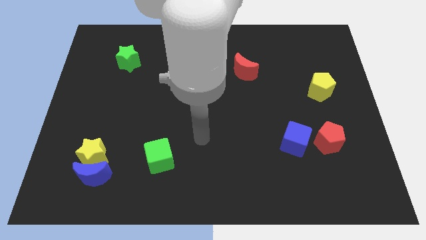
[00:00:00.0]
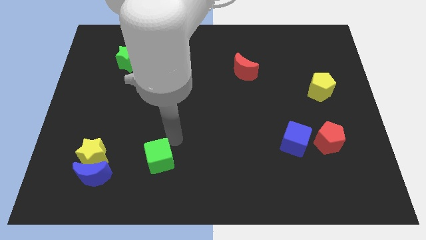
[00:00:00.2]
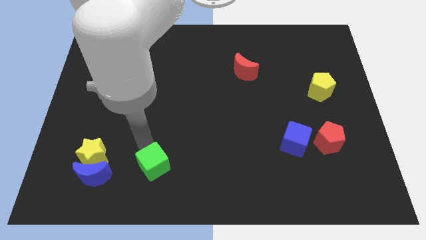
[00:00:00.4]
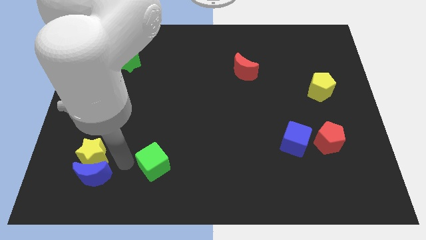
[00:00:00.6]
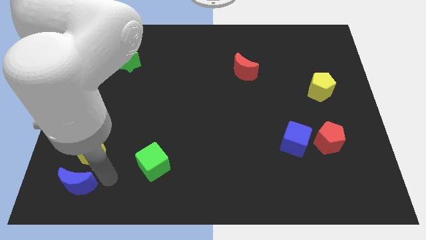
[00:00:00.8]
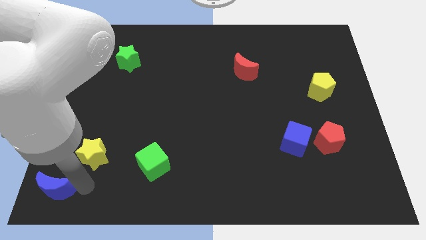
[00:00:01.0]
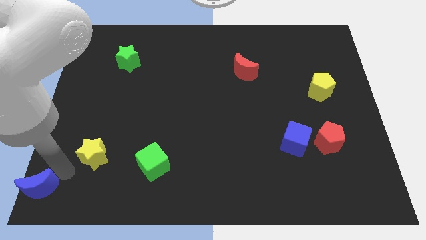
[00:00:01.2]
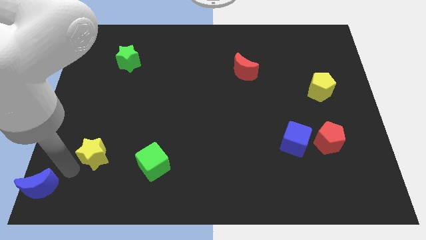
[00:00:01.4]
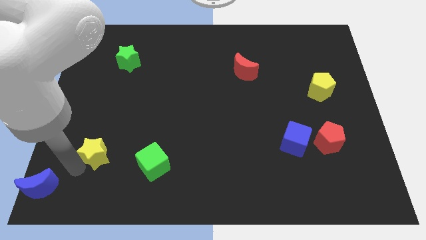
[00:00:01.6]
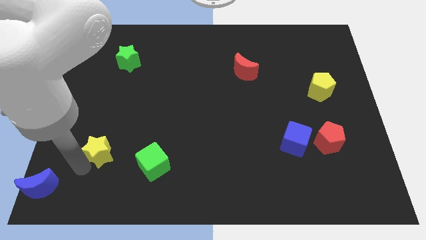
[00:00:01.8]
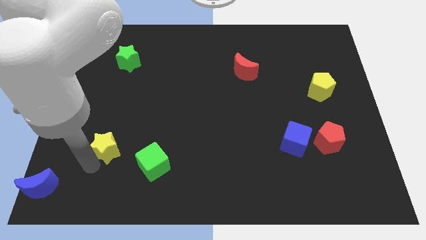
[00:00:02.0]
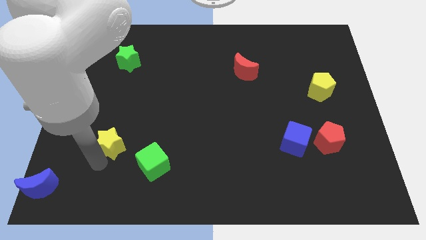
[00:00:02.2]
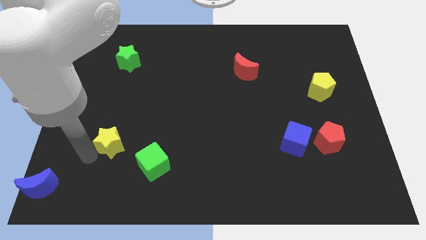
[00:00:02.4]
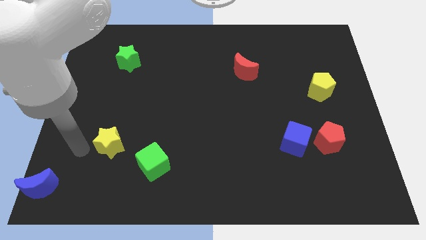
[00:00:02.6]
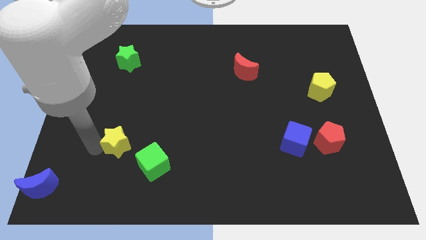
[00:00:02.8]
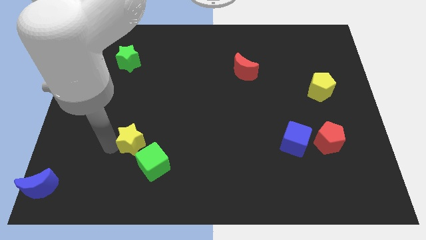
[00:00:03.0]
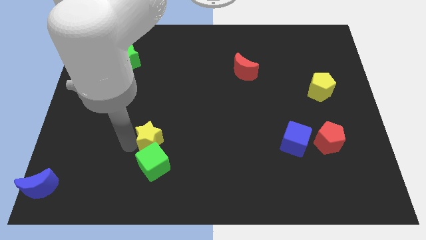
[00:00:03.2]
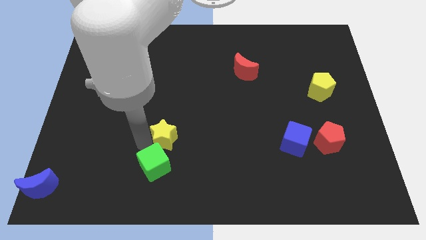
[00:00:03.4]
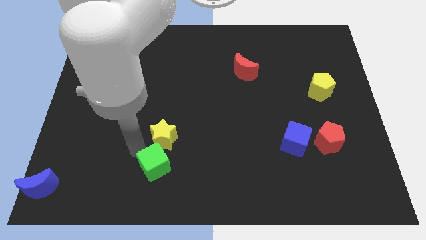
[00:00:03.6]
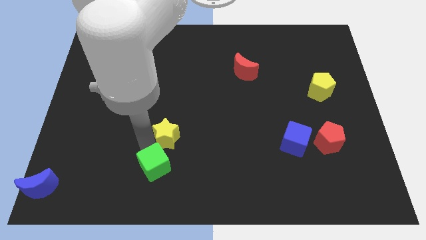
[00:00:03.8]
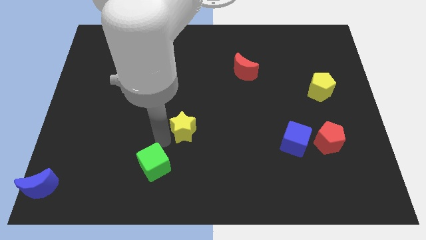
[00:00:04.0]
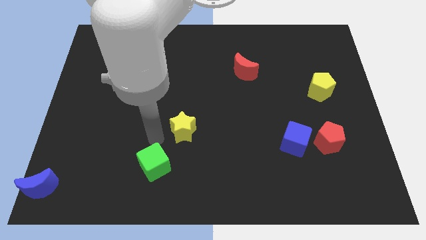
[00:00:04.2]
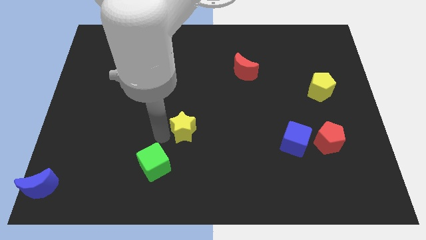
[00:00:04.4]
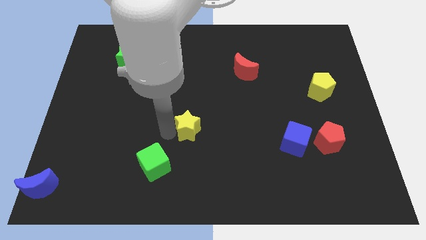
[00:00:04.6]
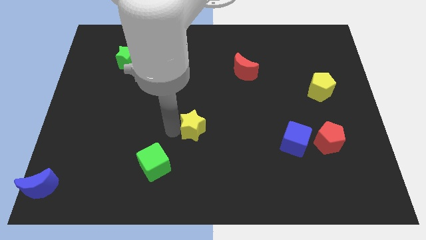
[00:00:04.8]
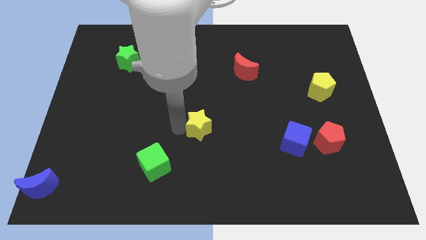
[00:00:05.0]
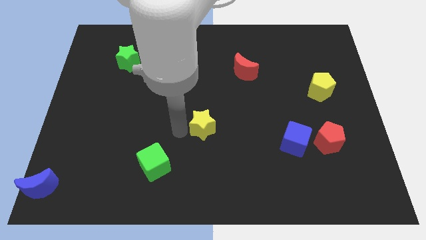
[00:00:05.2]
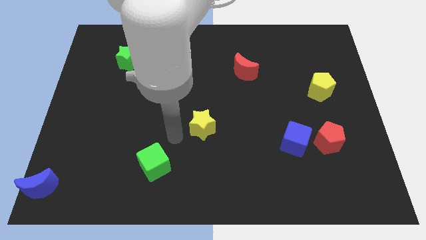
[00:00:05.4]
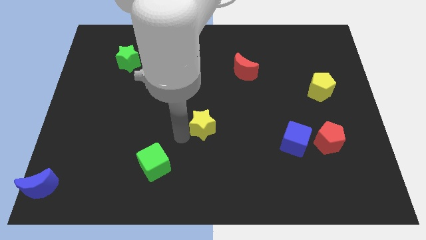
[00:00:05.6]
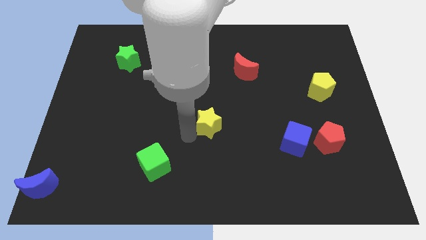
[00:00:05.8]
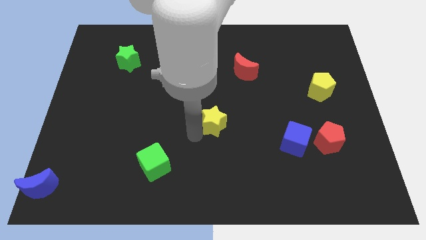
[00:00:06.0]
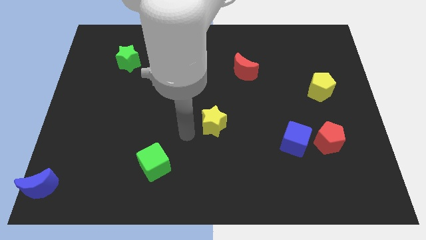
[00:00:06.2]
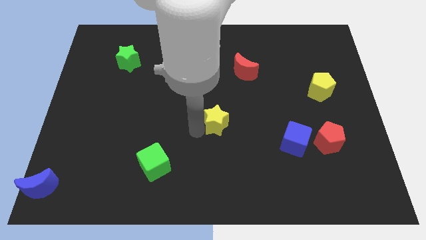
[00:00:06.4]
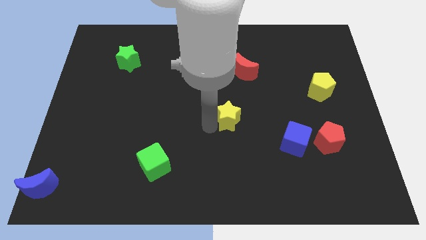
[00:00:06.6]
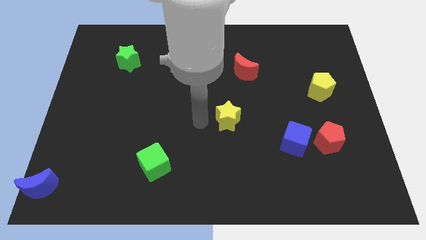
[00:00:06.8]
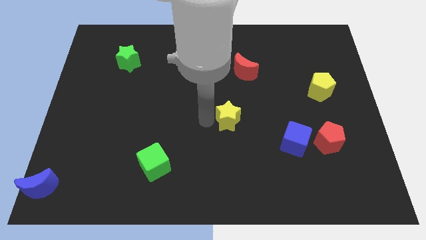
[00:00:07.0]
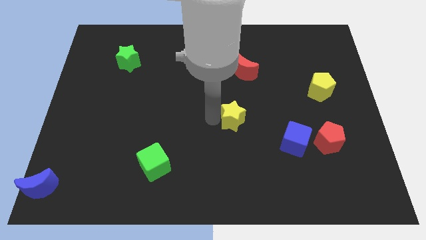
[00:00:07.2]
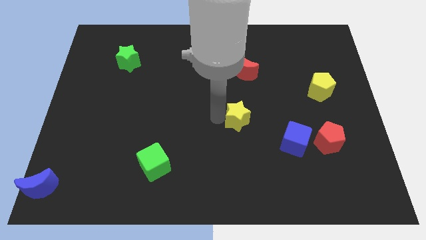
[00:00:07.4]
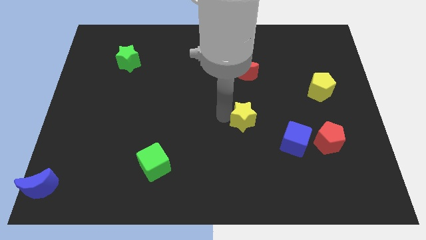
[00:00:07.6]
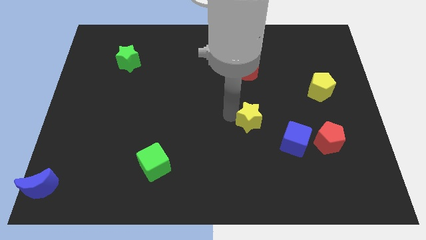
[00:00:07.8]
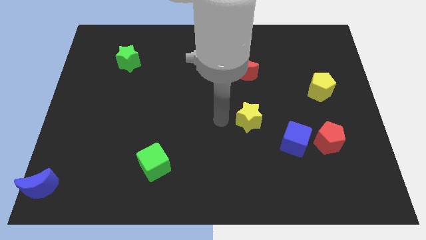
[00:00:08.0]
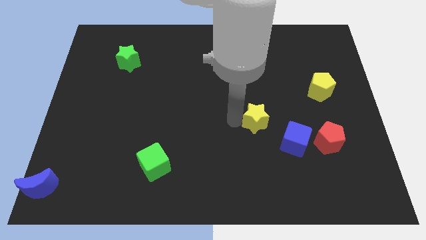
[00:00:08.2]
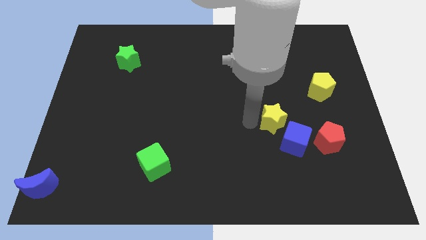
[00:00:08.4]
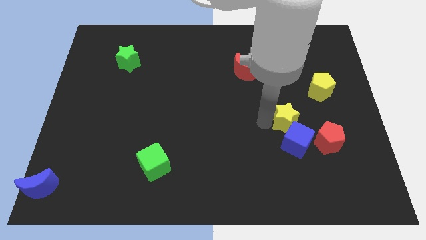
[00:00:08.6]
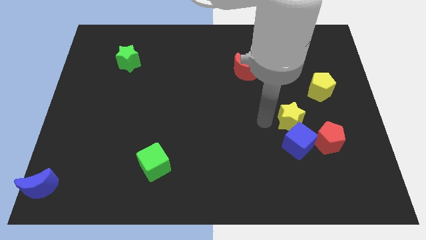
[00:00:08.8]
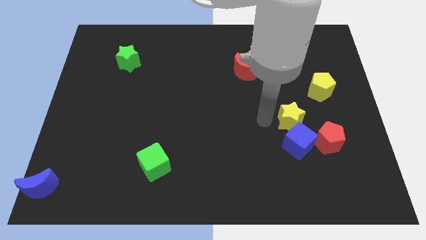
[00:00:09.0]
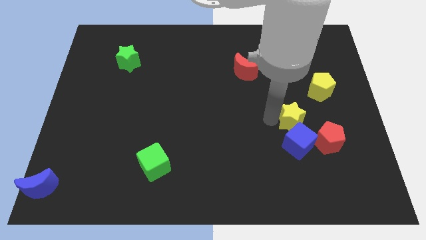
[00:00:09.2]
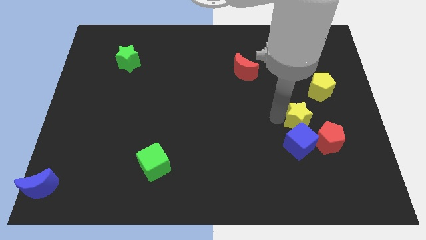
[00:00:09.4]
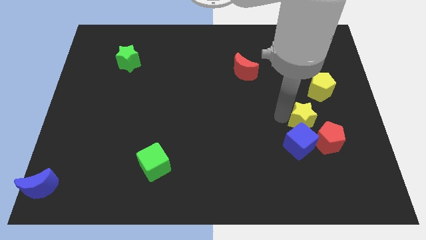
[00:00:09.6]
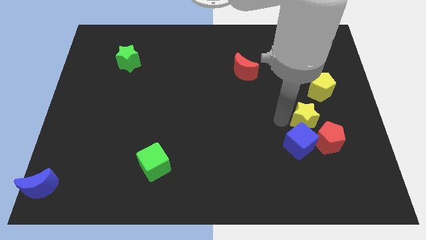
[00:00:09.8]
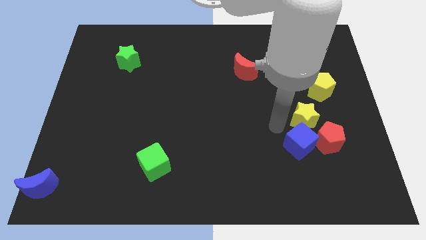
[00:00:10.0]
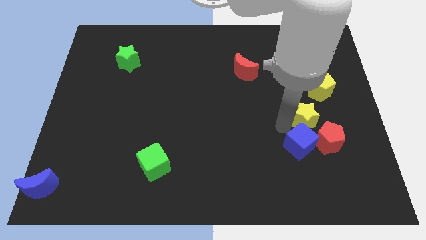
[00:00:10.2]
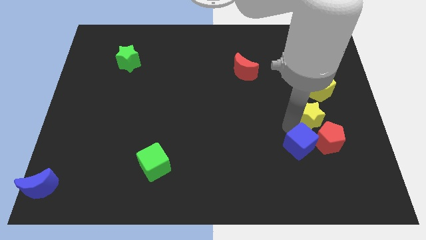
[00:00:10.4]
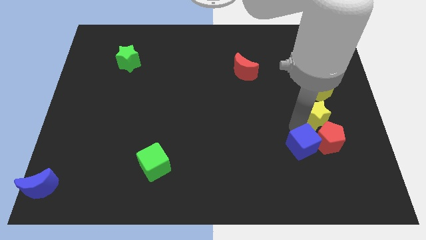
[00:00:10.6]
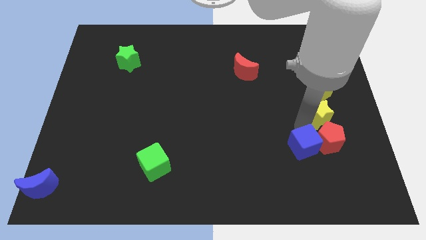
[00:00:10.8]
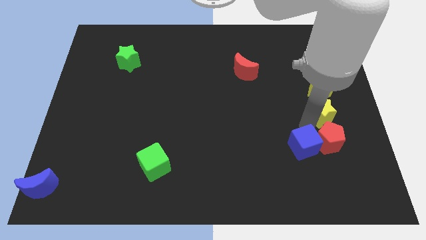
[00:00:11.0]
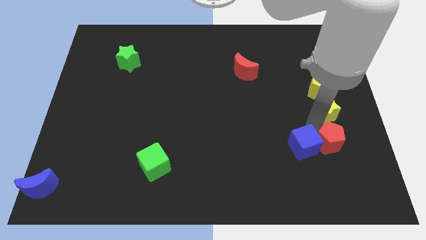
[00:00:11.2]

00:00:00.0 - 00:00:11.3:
move the yellow star to the right side
